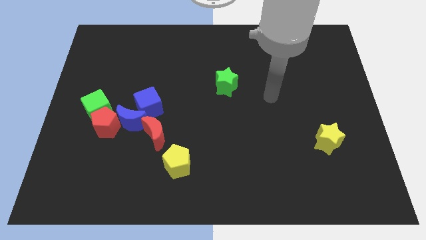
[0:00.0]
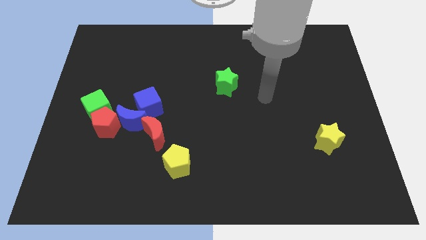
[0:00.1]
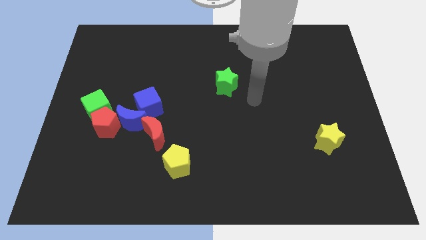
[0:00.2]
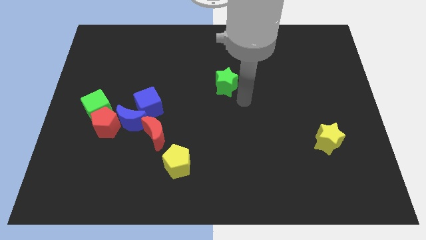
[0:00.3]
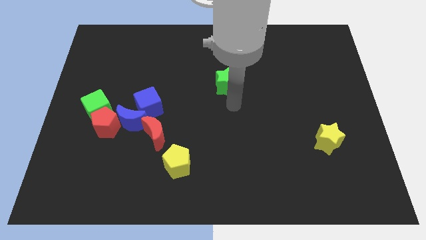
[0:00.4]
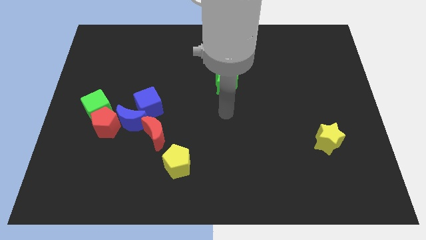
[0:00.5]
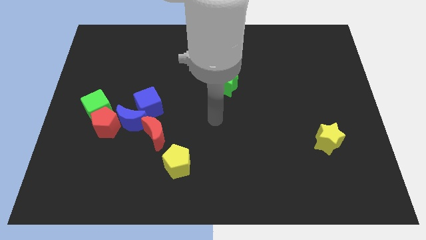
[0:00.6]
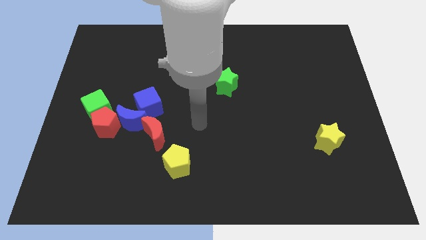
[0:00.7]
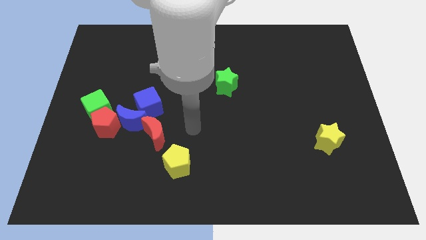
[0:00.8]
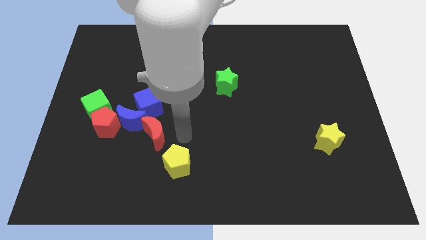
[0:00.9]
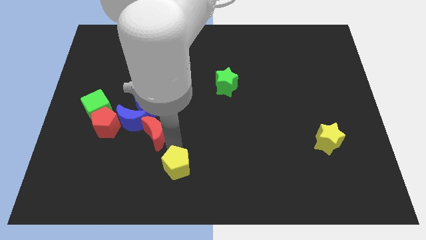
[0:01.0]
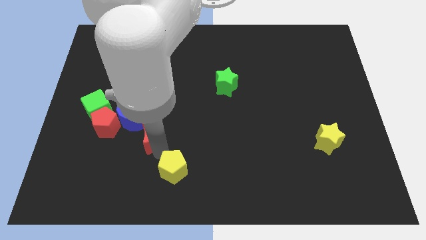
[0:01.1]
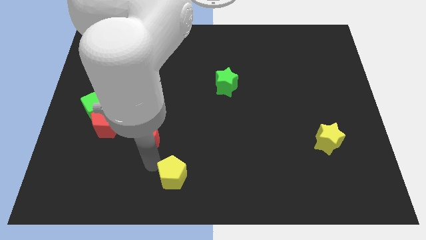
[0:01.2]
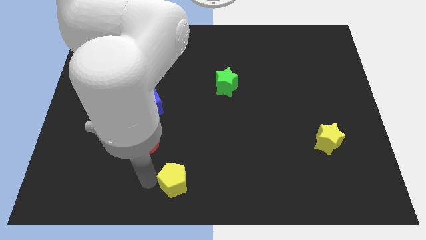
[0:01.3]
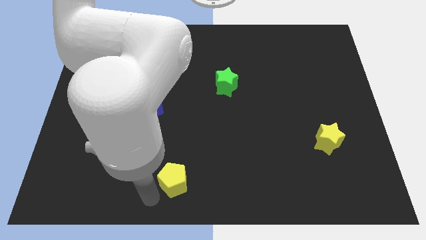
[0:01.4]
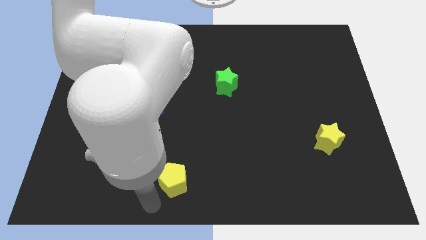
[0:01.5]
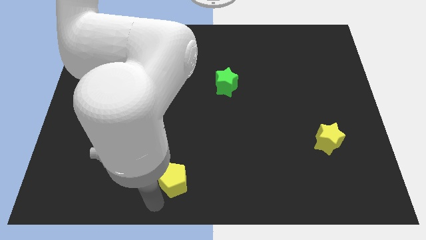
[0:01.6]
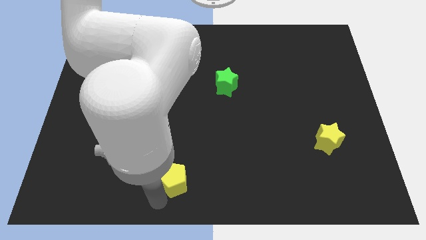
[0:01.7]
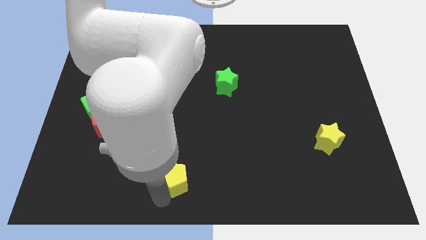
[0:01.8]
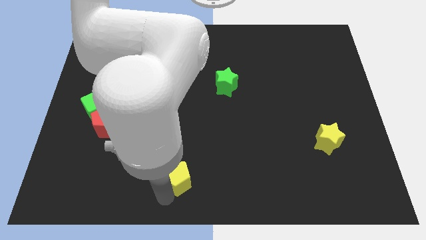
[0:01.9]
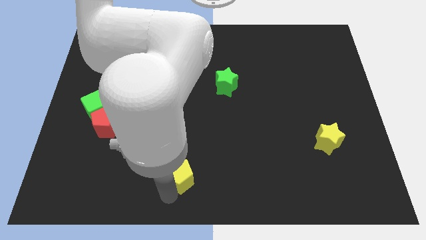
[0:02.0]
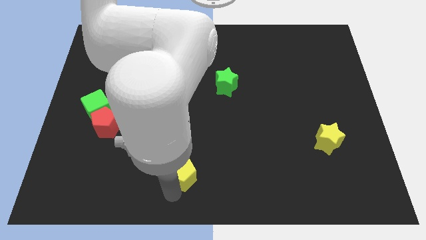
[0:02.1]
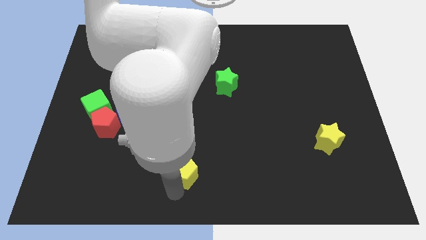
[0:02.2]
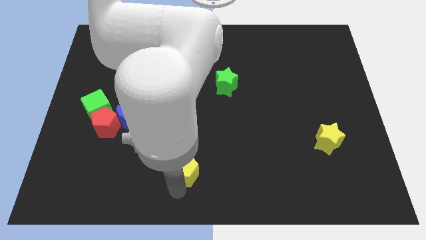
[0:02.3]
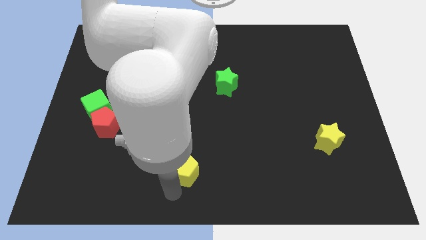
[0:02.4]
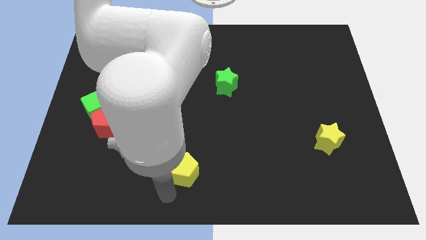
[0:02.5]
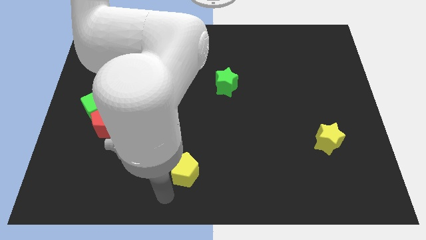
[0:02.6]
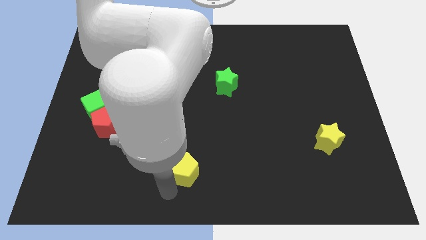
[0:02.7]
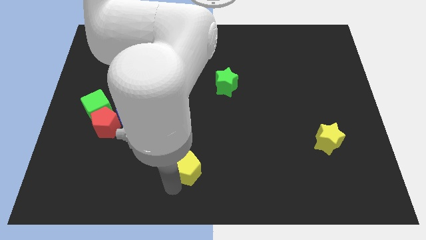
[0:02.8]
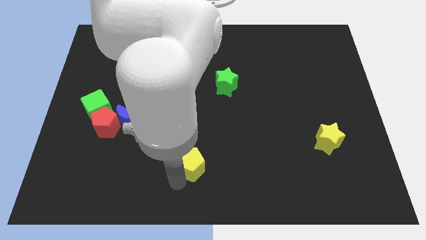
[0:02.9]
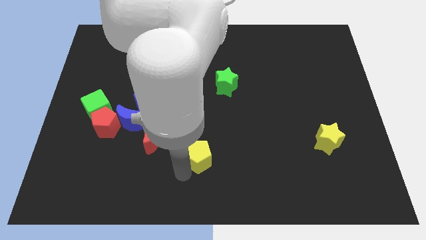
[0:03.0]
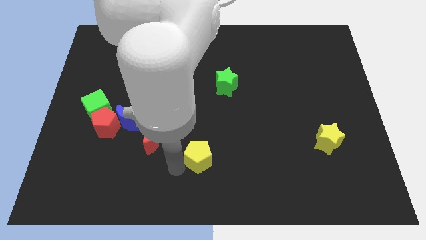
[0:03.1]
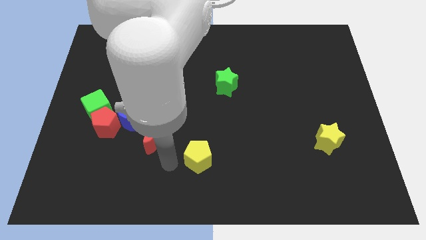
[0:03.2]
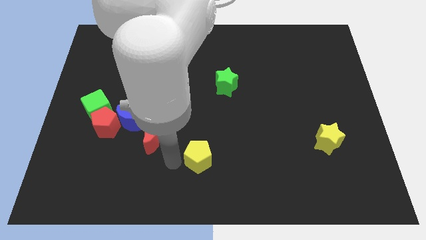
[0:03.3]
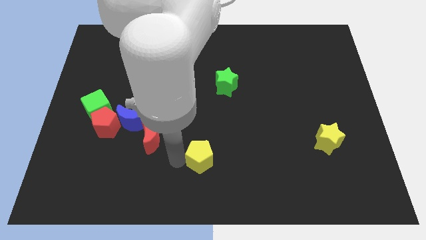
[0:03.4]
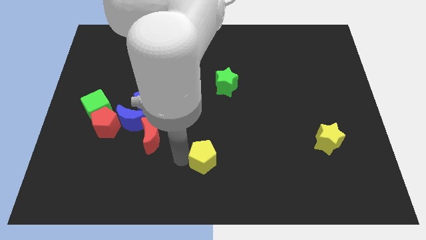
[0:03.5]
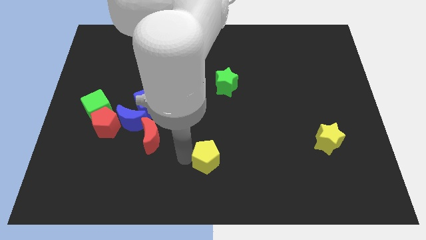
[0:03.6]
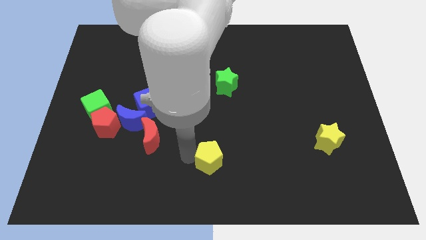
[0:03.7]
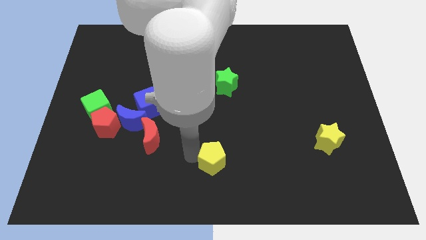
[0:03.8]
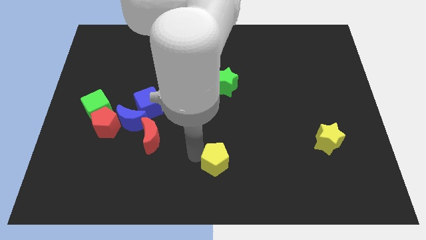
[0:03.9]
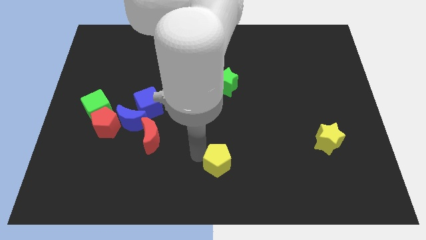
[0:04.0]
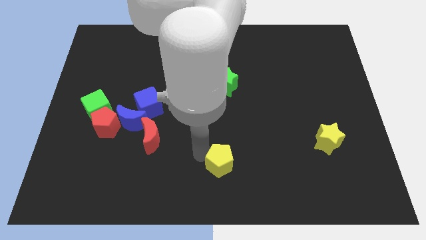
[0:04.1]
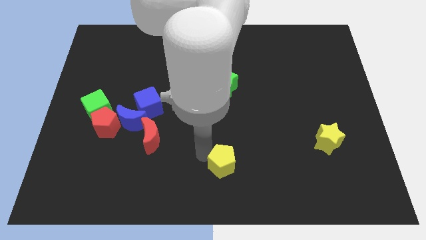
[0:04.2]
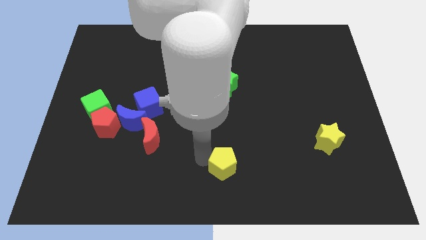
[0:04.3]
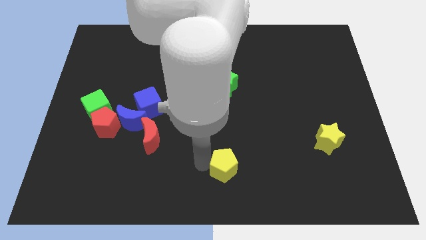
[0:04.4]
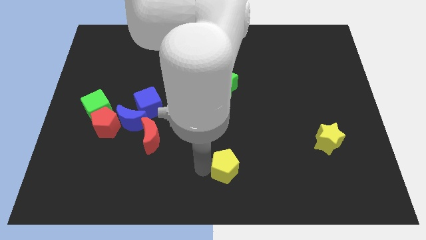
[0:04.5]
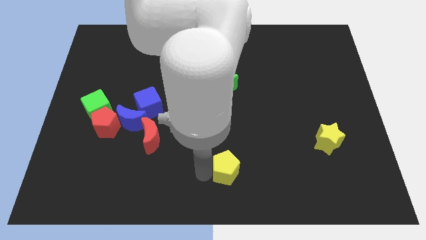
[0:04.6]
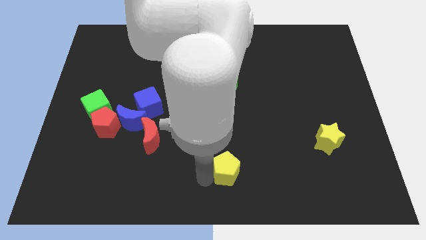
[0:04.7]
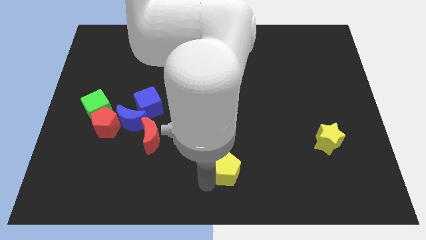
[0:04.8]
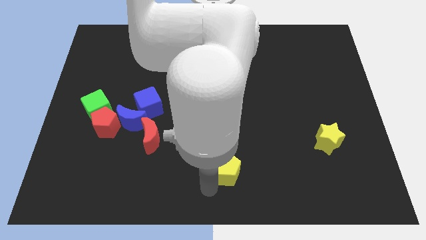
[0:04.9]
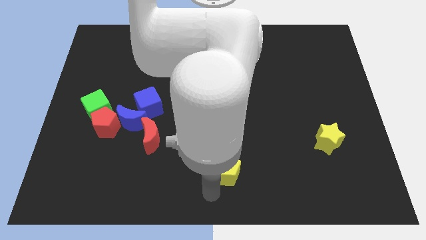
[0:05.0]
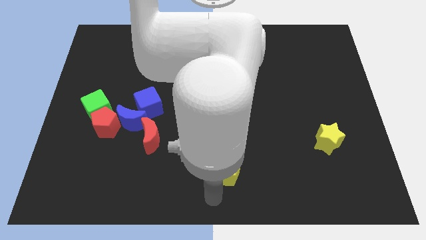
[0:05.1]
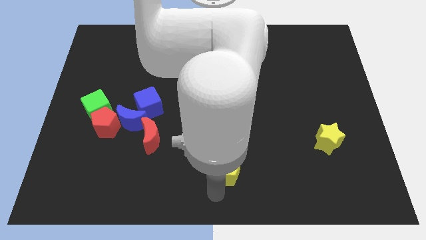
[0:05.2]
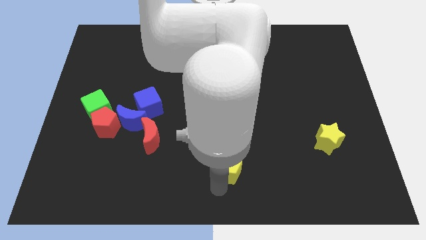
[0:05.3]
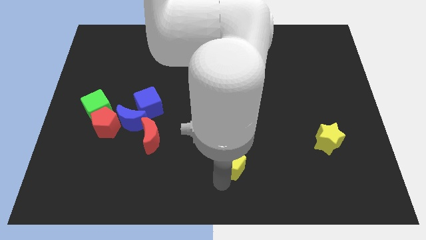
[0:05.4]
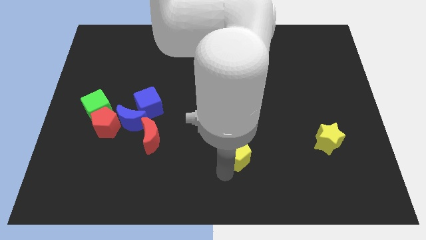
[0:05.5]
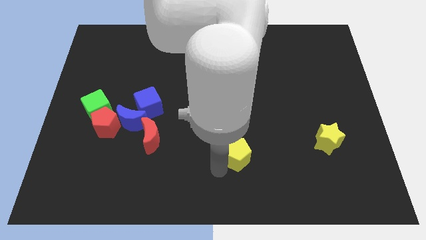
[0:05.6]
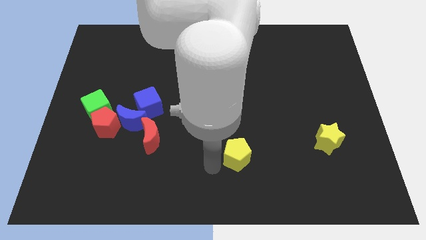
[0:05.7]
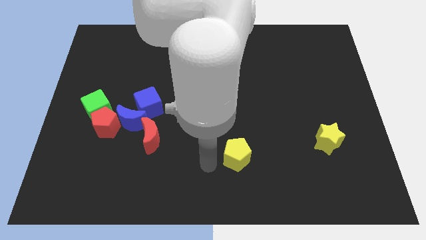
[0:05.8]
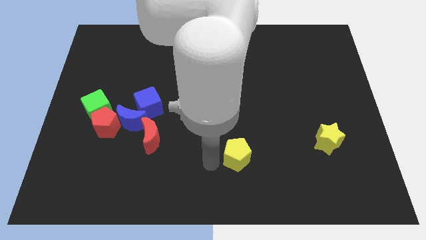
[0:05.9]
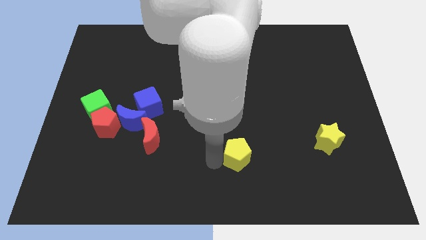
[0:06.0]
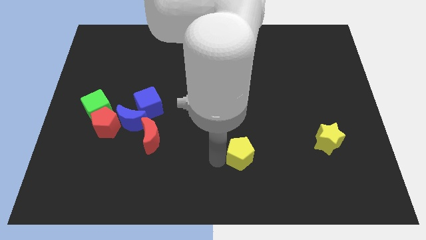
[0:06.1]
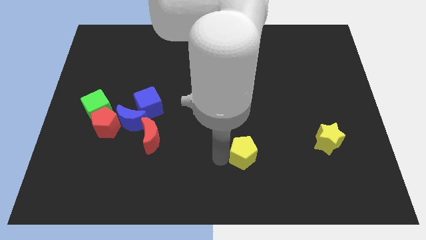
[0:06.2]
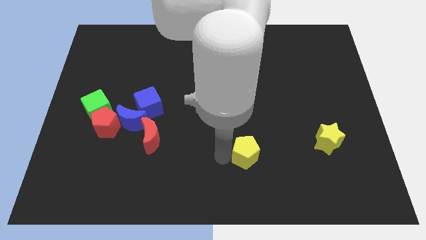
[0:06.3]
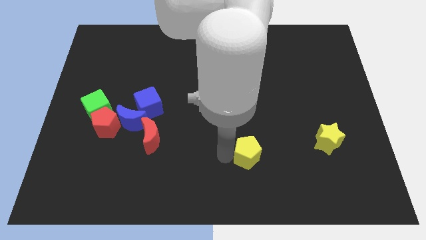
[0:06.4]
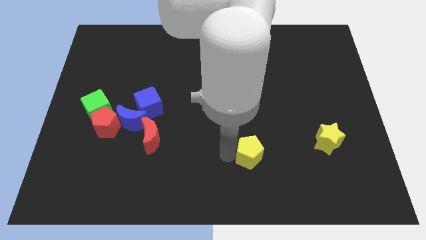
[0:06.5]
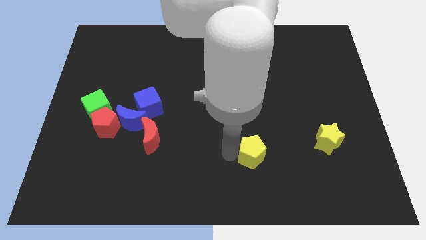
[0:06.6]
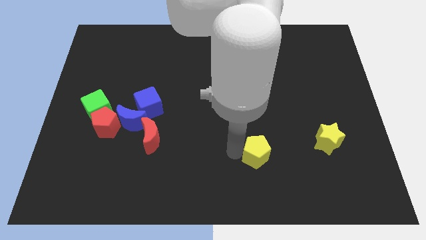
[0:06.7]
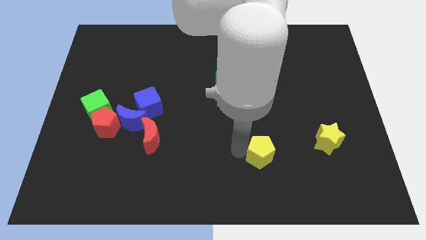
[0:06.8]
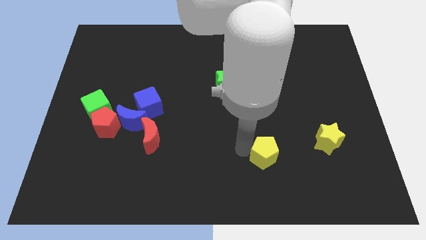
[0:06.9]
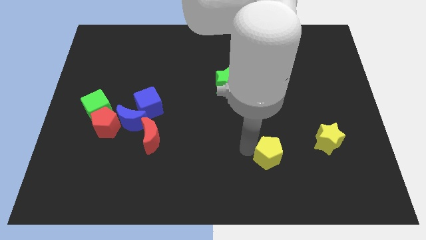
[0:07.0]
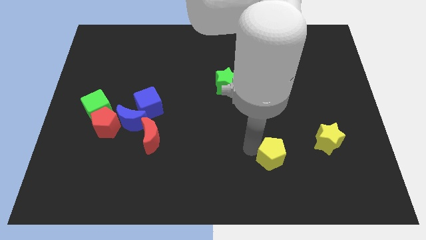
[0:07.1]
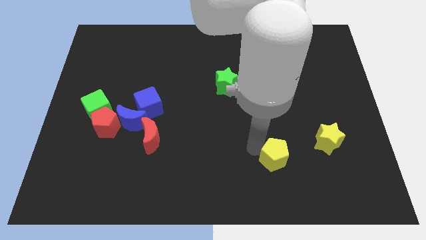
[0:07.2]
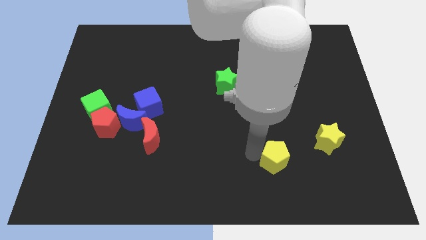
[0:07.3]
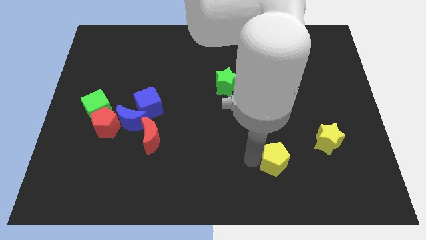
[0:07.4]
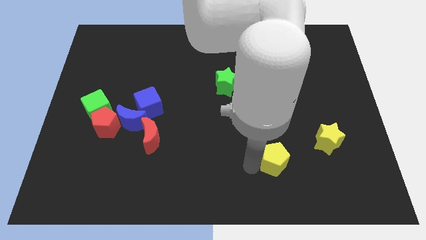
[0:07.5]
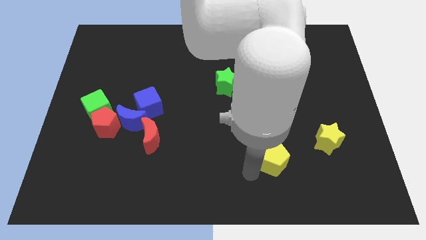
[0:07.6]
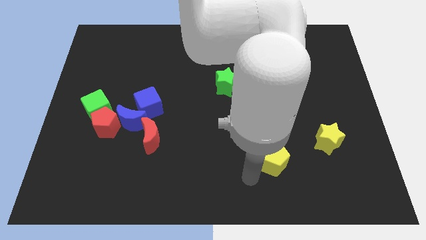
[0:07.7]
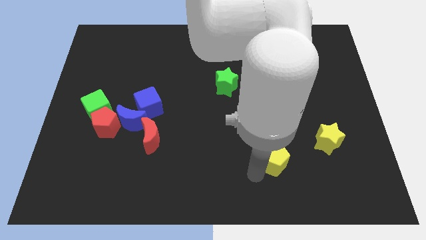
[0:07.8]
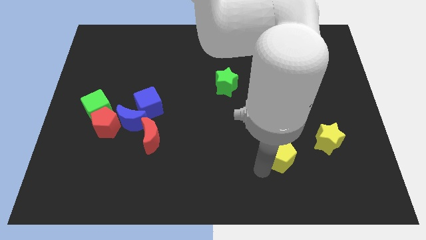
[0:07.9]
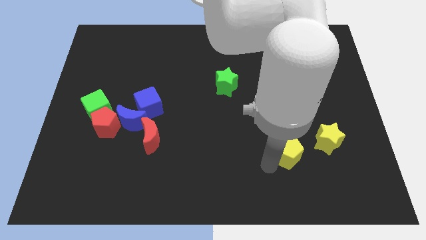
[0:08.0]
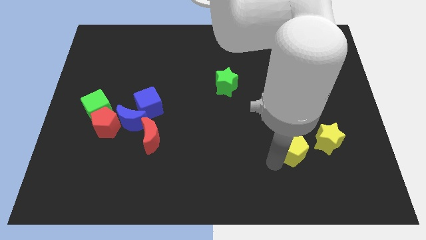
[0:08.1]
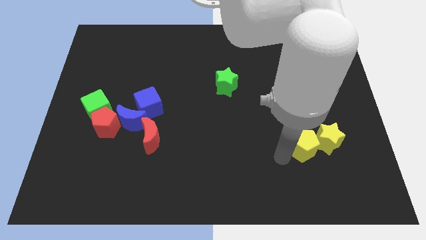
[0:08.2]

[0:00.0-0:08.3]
slide the yellow pentagon close to the yellow star
